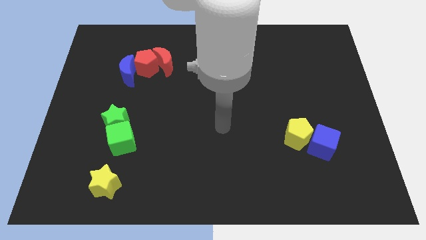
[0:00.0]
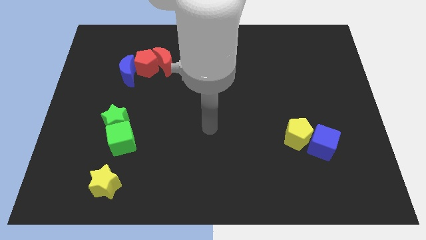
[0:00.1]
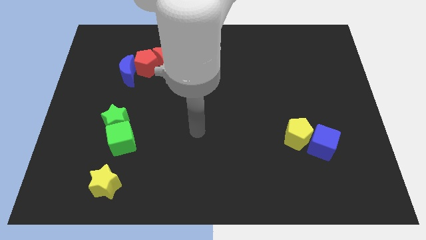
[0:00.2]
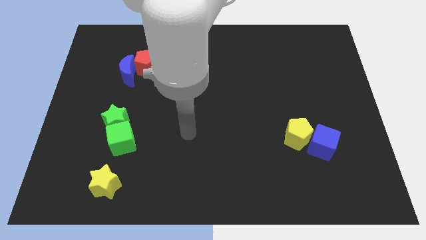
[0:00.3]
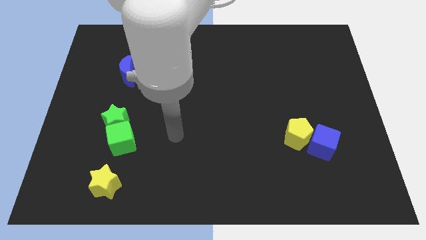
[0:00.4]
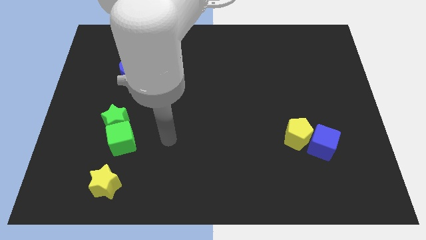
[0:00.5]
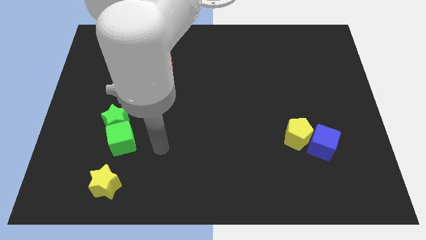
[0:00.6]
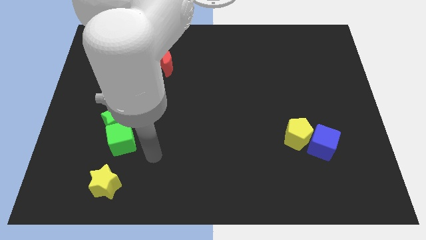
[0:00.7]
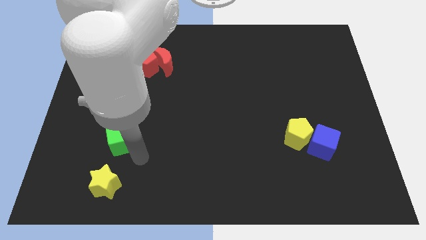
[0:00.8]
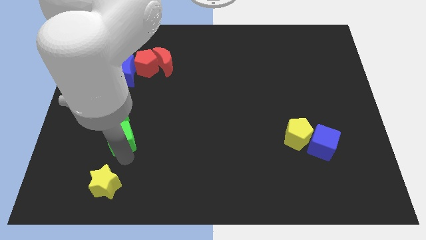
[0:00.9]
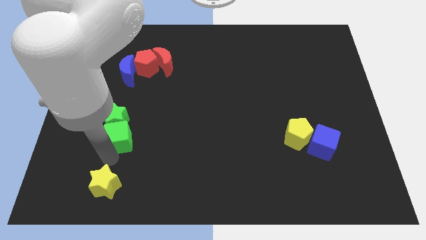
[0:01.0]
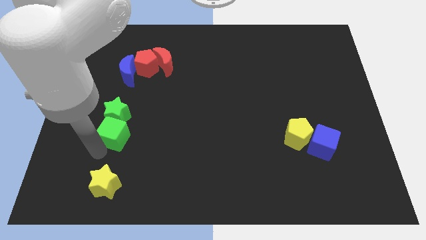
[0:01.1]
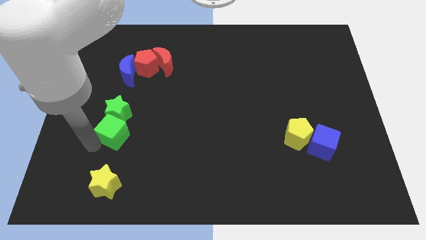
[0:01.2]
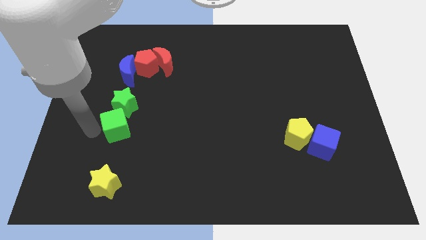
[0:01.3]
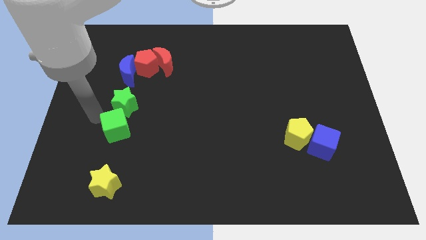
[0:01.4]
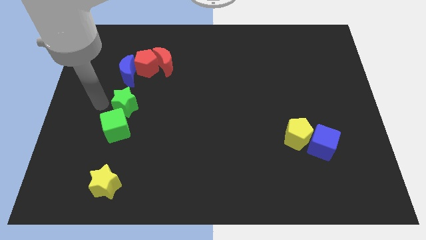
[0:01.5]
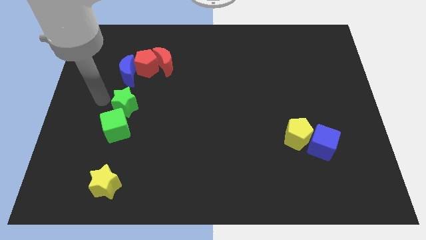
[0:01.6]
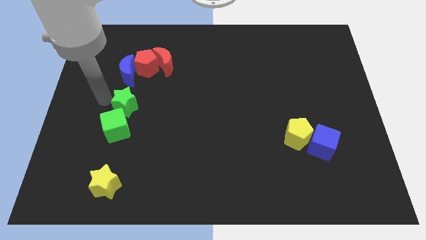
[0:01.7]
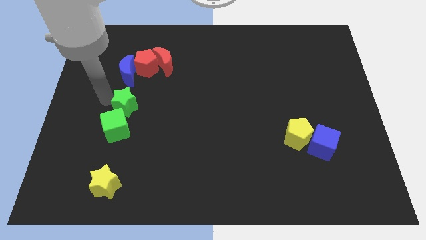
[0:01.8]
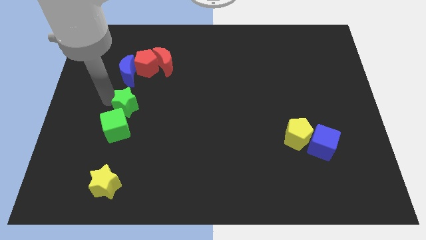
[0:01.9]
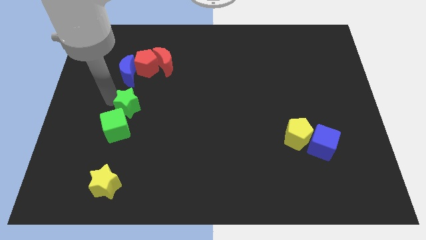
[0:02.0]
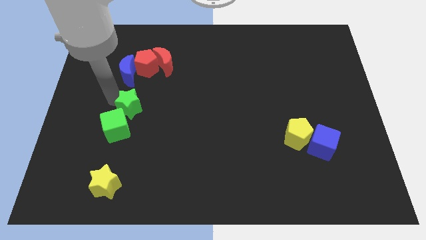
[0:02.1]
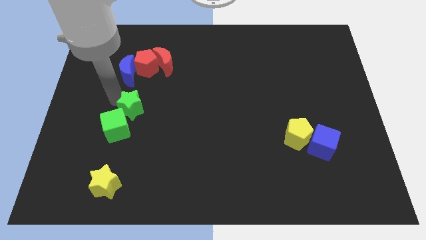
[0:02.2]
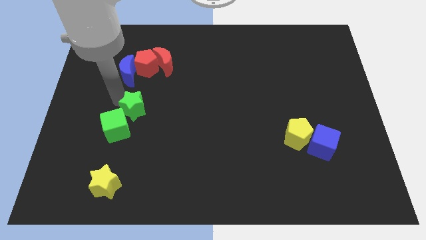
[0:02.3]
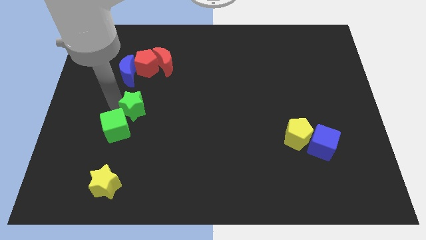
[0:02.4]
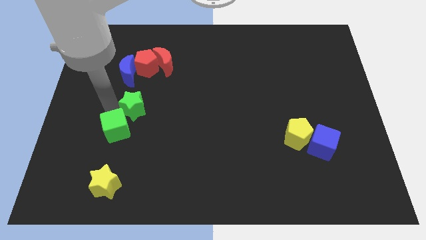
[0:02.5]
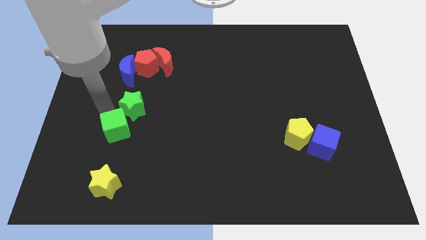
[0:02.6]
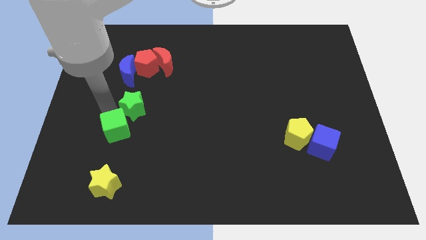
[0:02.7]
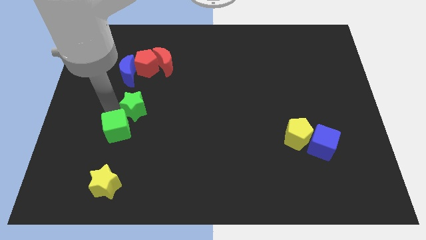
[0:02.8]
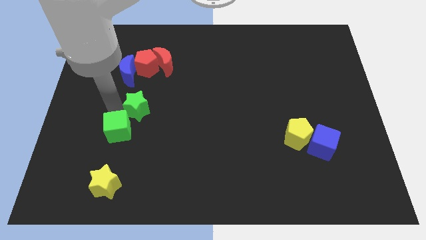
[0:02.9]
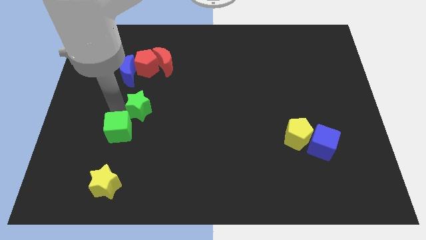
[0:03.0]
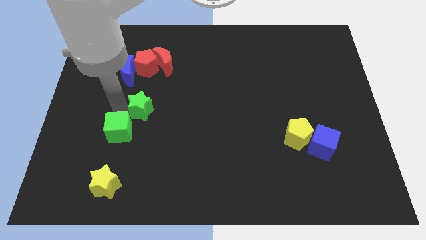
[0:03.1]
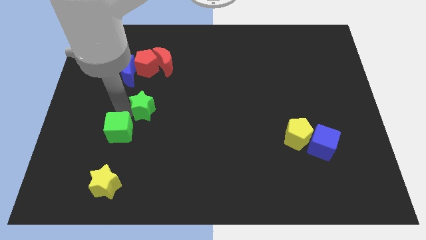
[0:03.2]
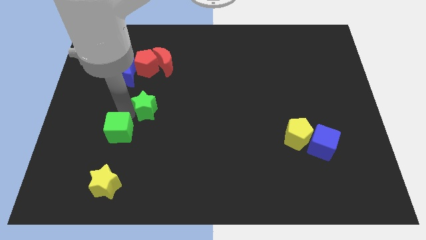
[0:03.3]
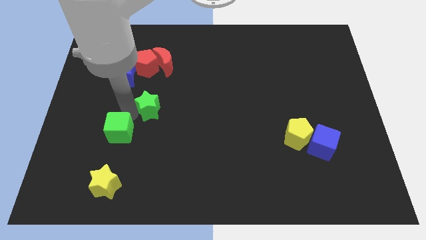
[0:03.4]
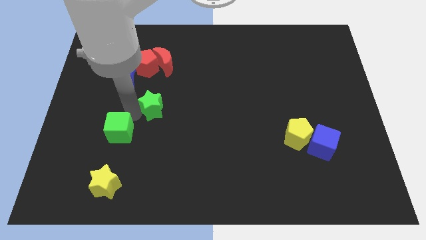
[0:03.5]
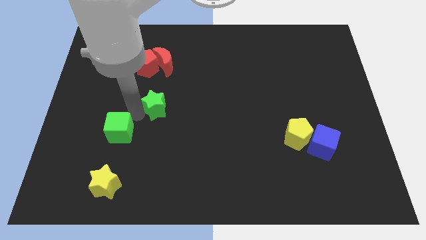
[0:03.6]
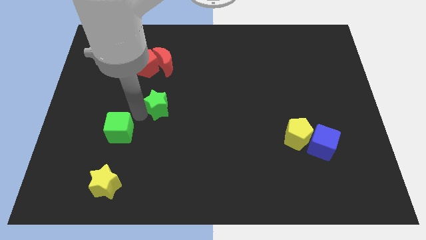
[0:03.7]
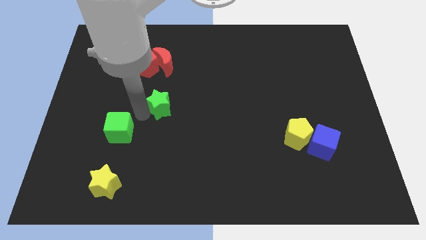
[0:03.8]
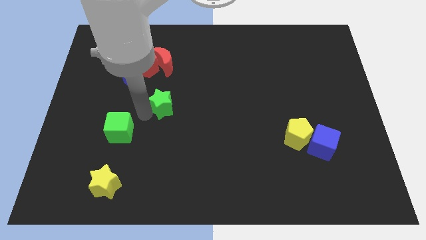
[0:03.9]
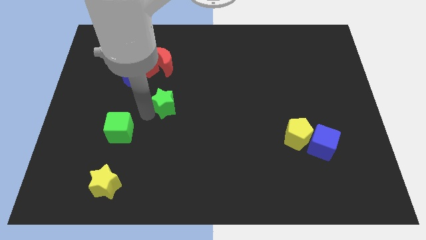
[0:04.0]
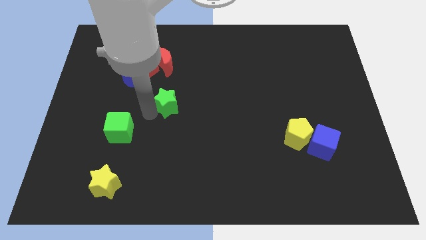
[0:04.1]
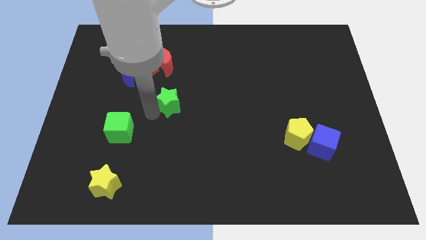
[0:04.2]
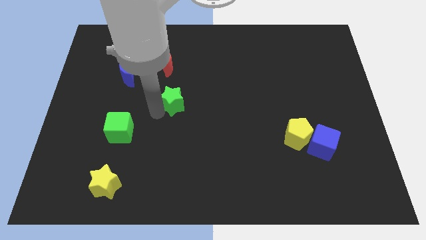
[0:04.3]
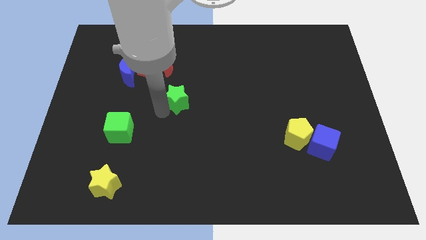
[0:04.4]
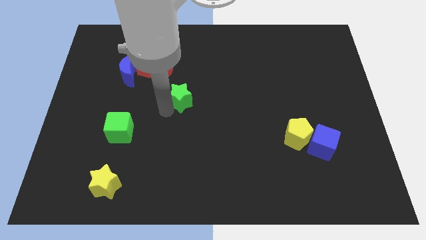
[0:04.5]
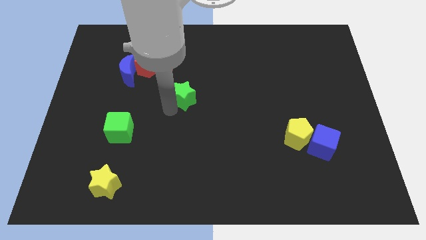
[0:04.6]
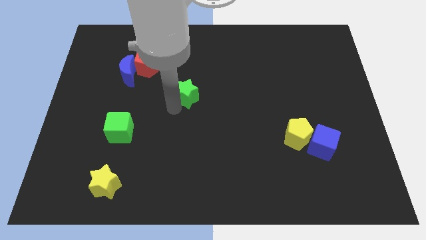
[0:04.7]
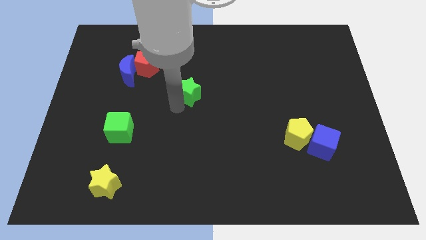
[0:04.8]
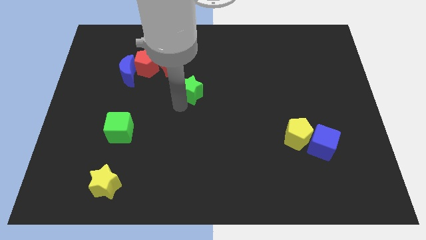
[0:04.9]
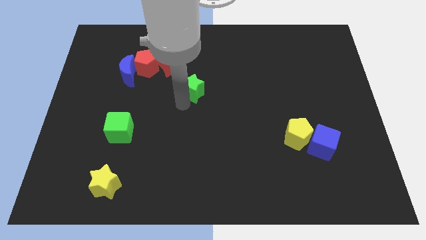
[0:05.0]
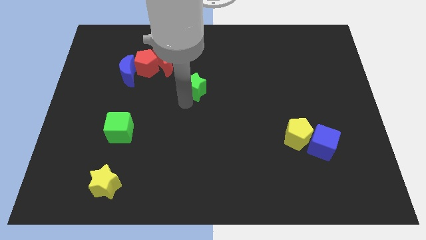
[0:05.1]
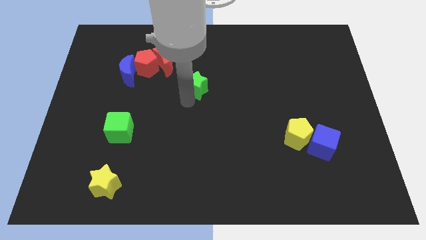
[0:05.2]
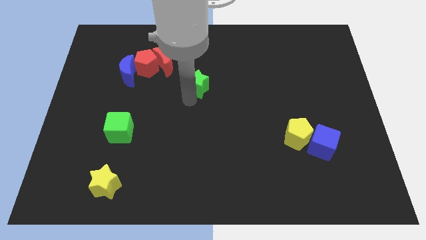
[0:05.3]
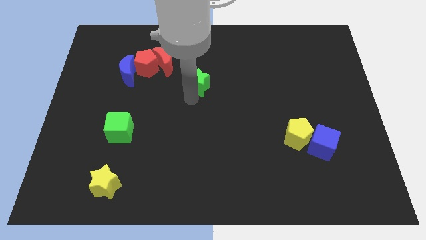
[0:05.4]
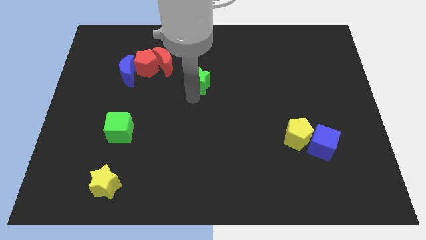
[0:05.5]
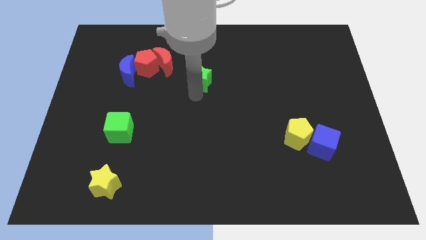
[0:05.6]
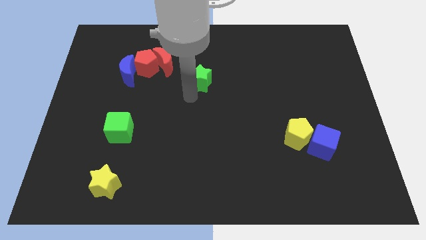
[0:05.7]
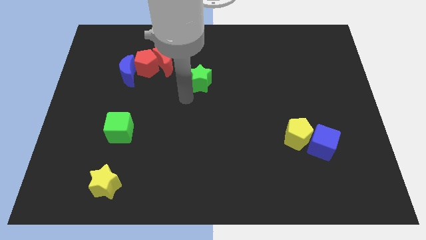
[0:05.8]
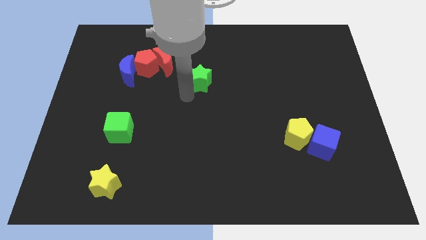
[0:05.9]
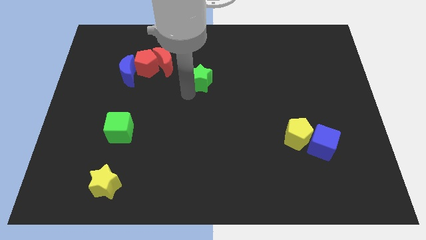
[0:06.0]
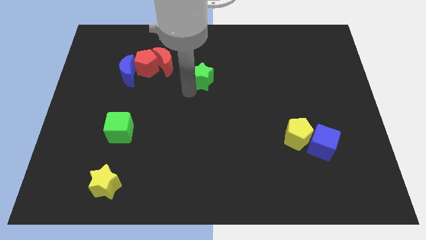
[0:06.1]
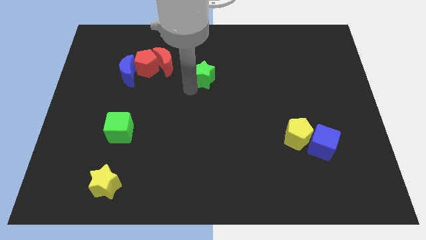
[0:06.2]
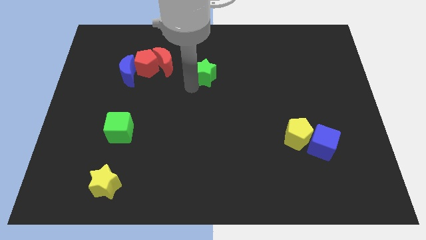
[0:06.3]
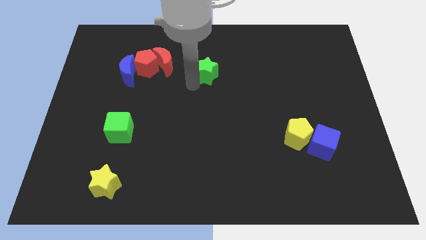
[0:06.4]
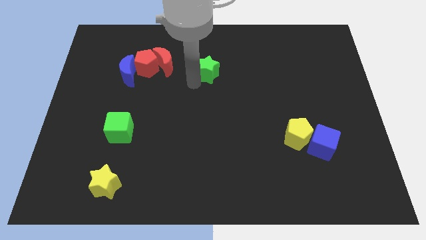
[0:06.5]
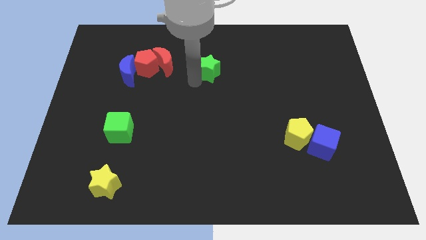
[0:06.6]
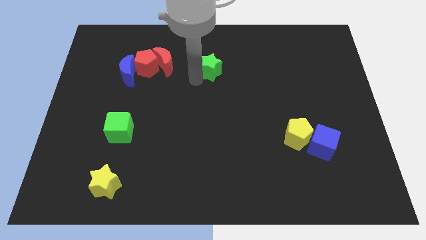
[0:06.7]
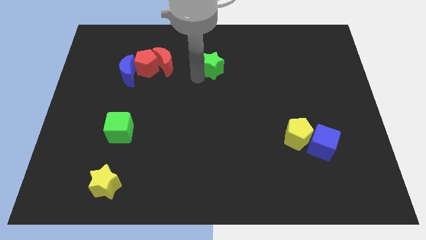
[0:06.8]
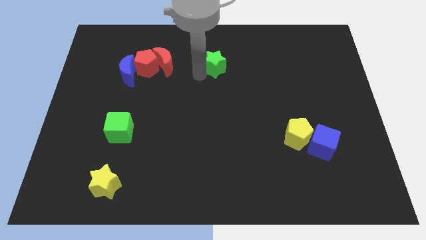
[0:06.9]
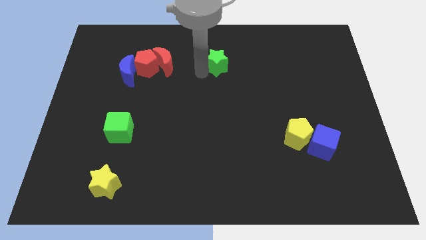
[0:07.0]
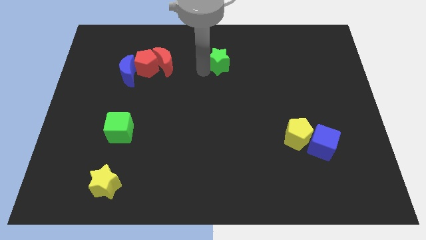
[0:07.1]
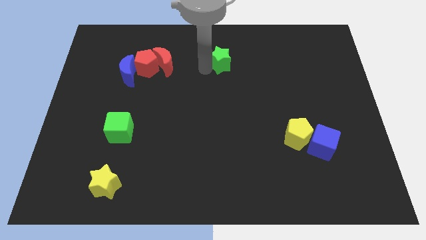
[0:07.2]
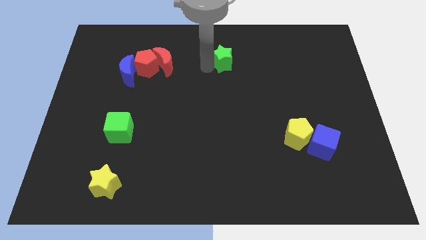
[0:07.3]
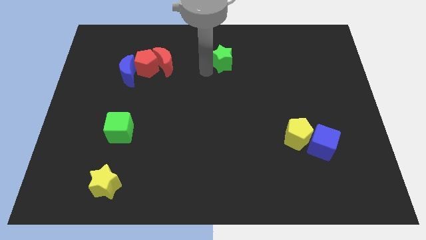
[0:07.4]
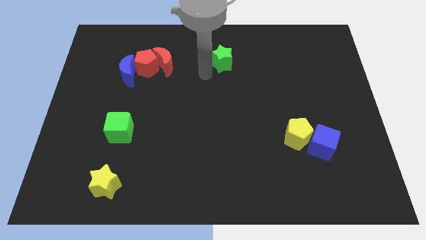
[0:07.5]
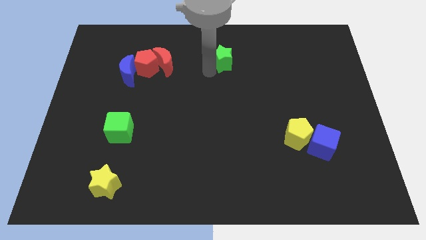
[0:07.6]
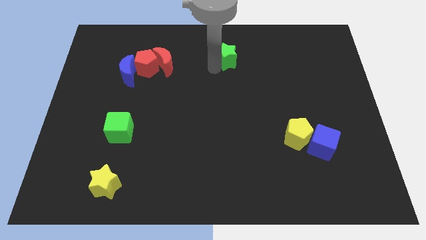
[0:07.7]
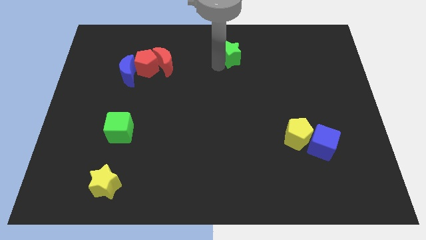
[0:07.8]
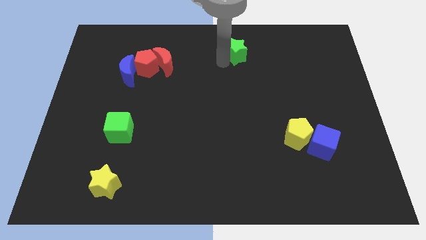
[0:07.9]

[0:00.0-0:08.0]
put the green star to the top
